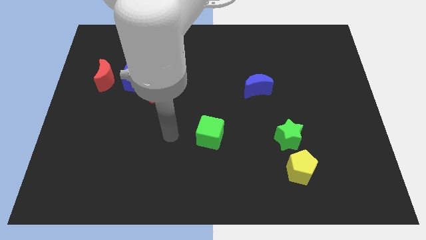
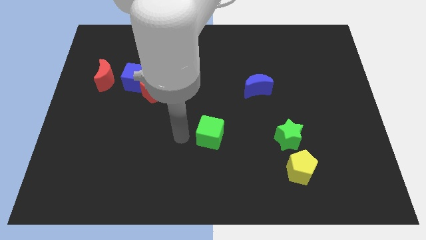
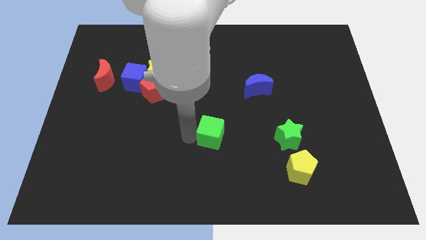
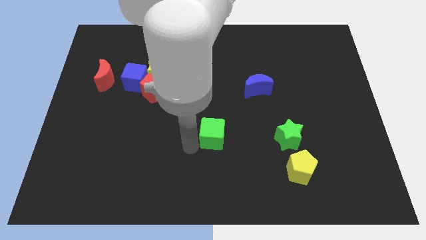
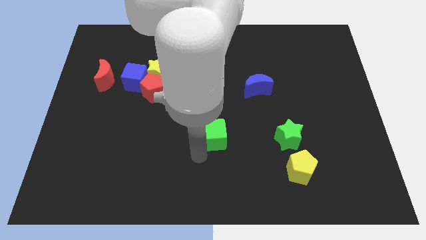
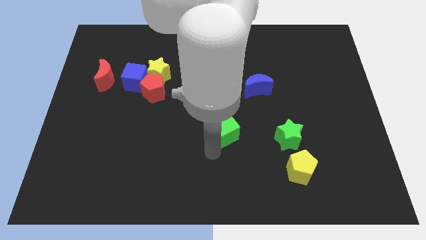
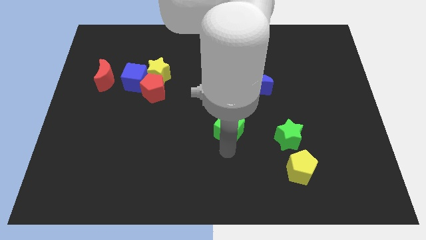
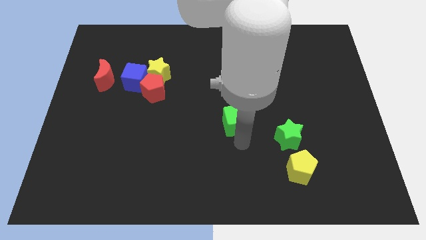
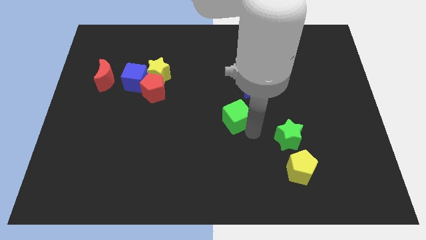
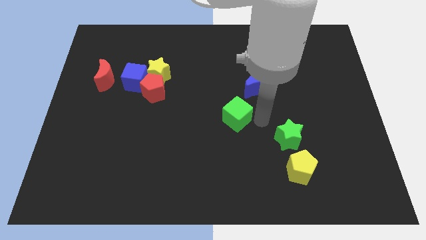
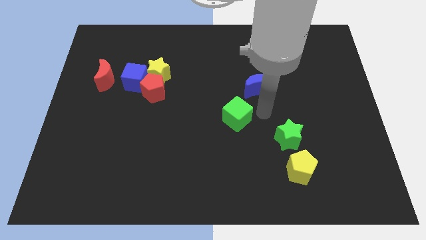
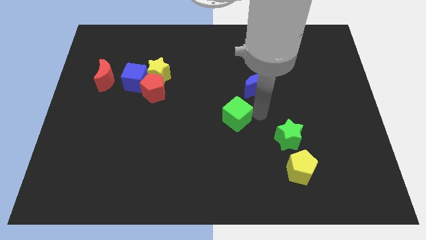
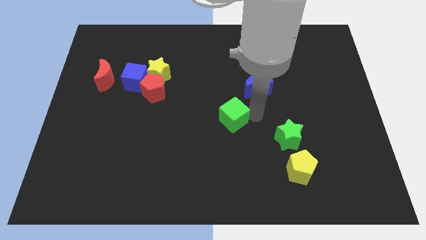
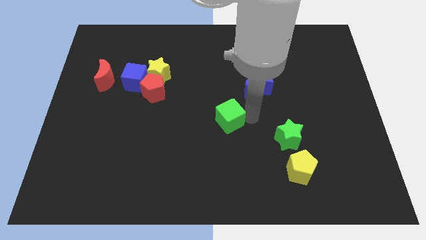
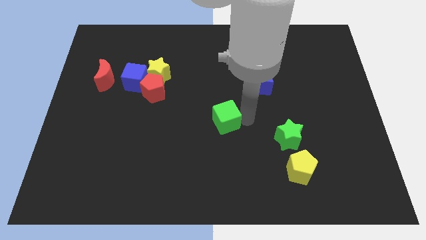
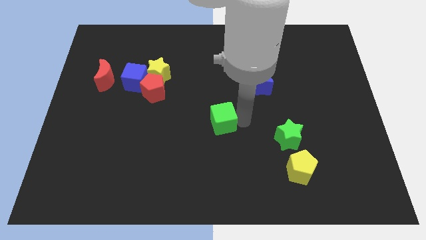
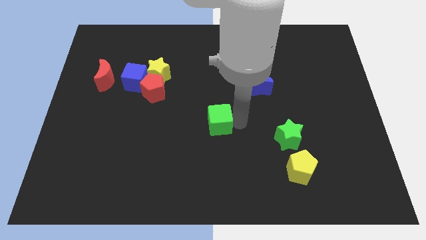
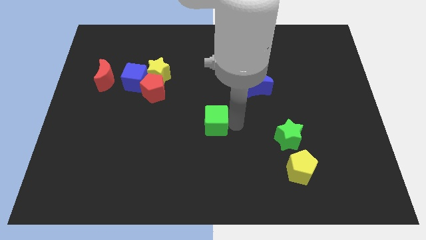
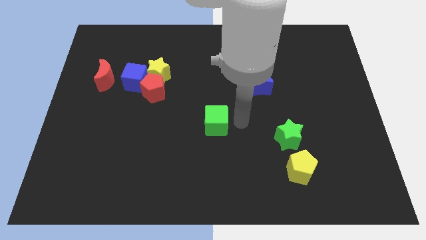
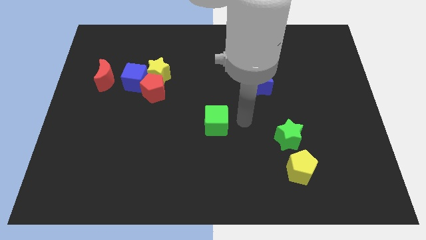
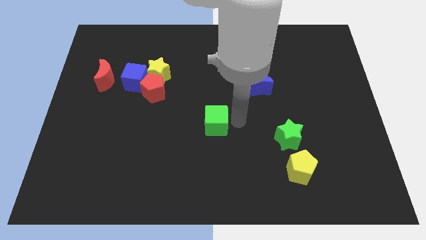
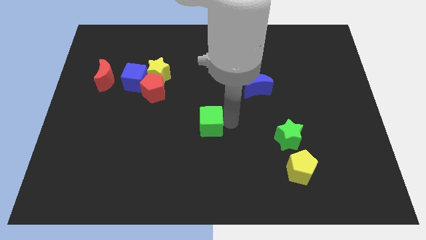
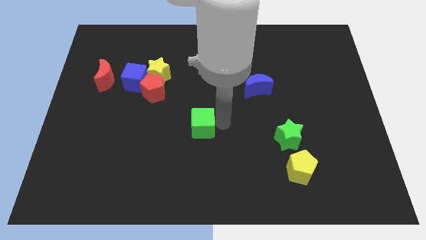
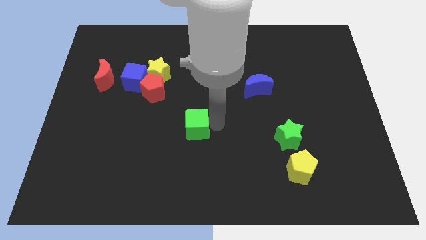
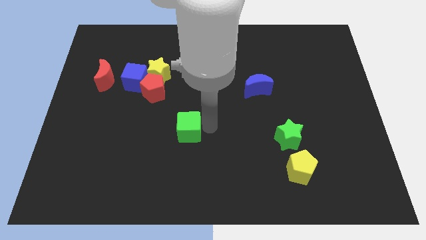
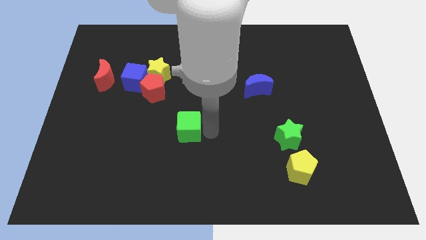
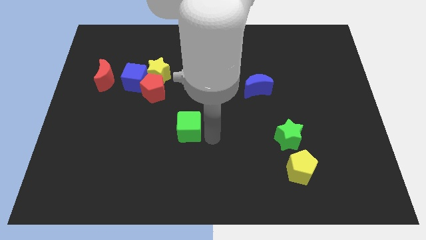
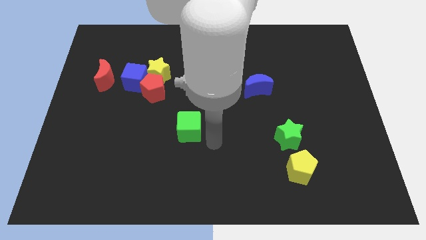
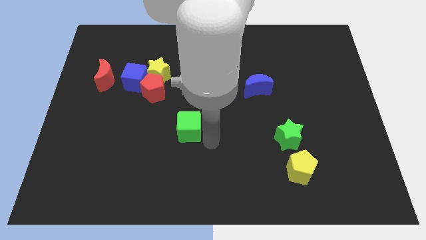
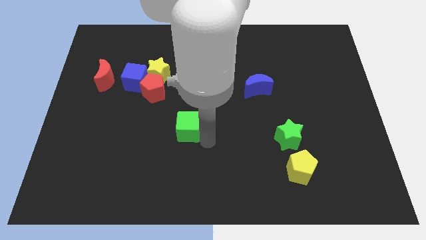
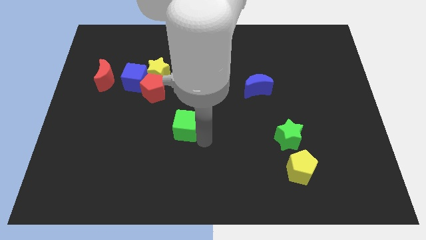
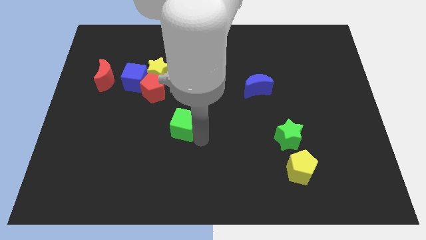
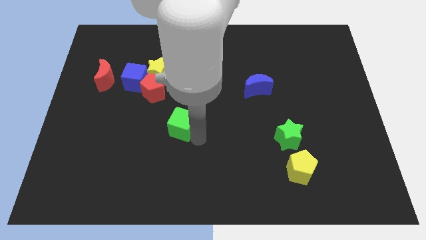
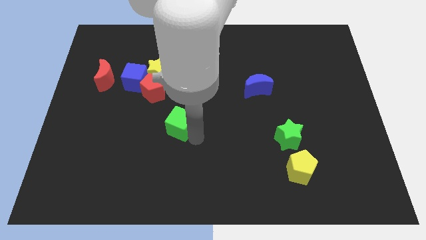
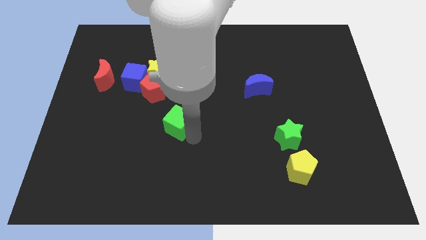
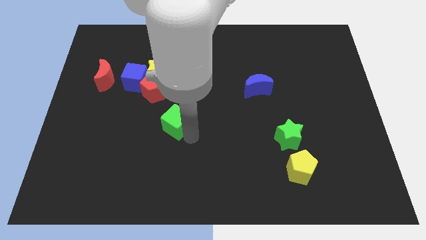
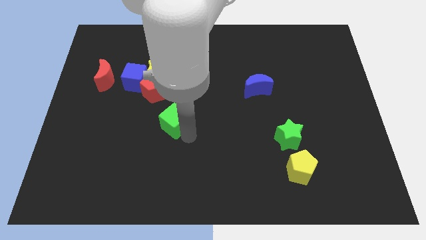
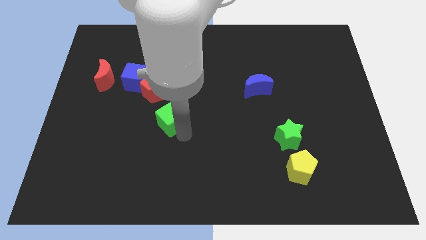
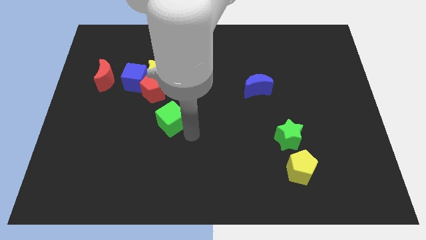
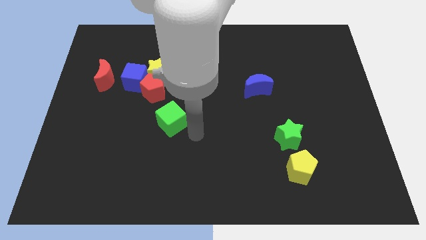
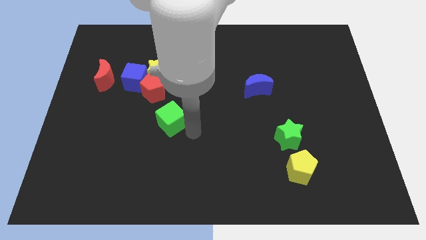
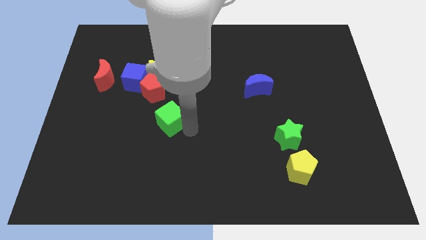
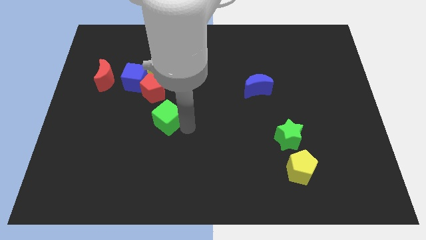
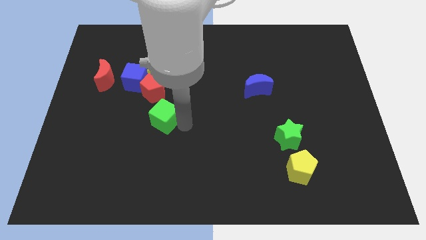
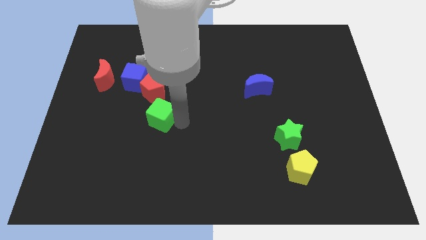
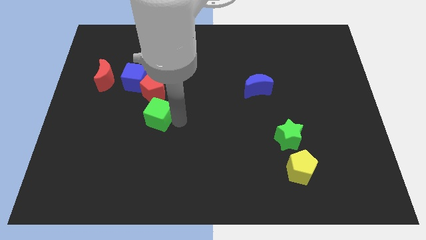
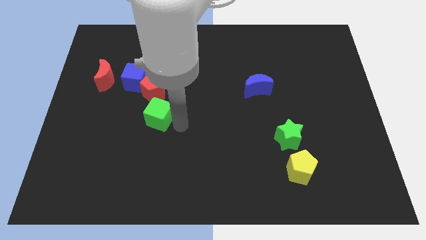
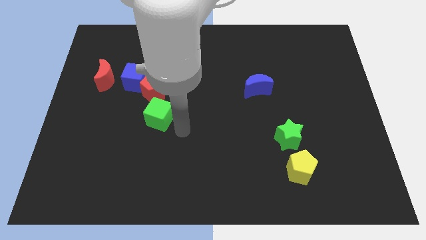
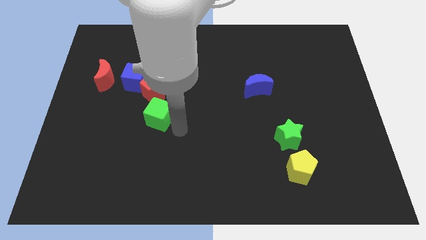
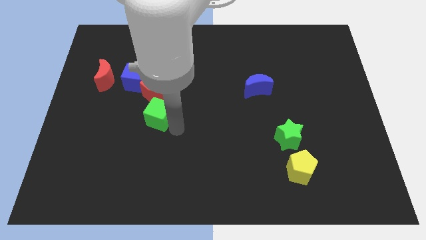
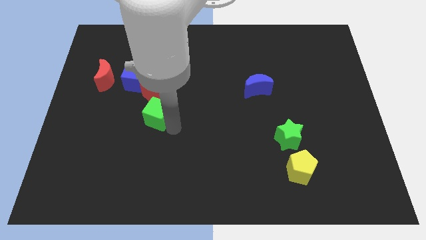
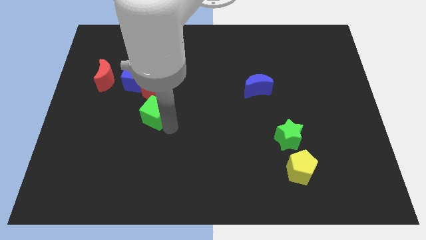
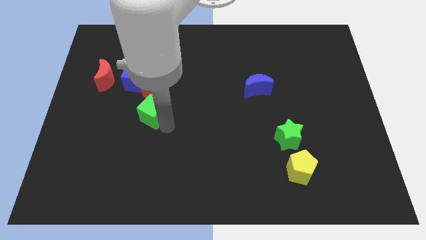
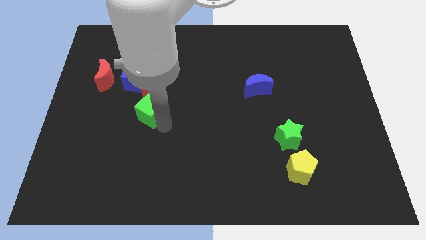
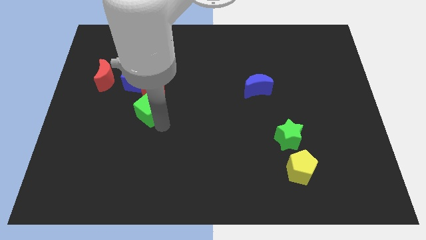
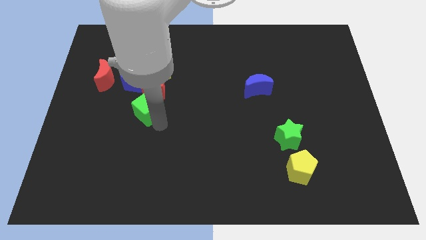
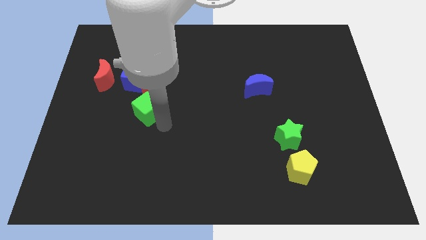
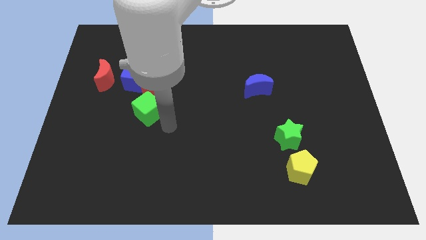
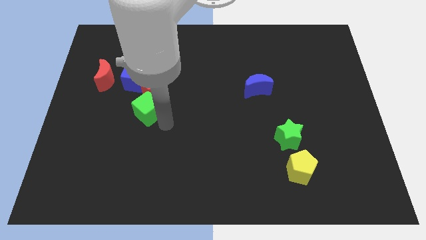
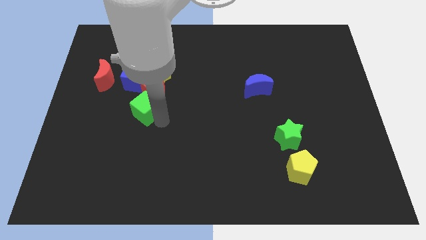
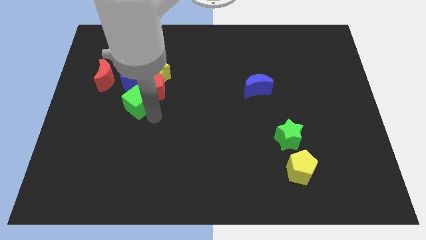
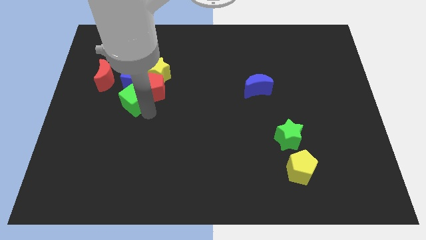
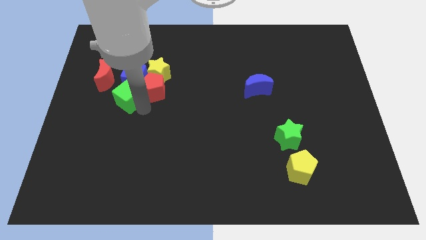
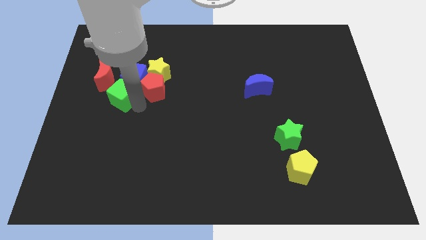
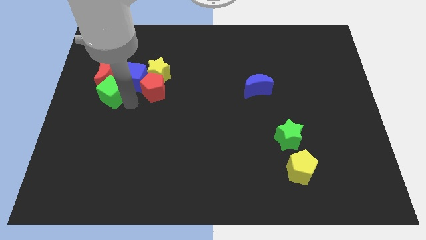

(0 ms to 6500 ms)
put the green cube next to the red moon

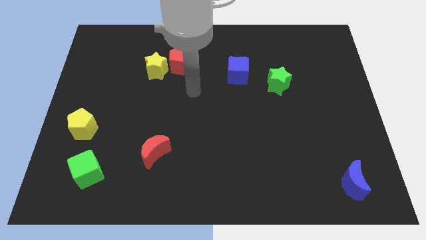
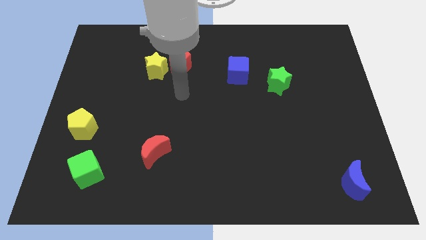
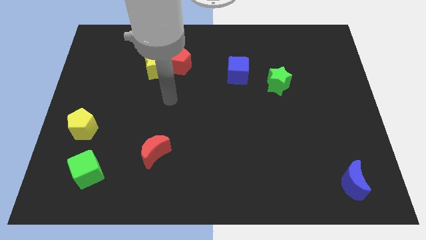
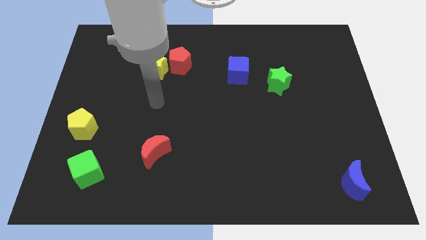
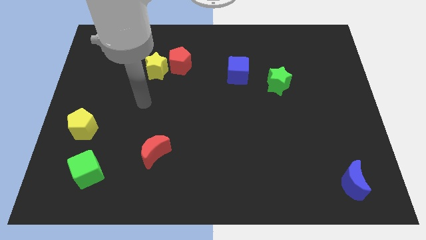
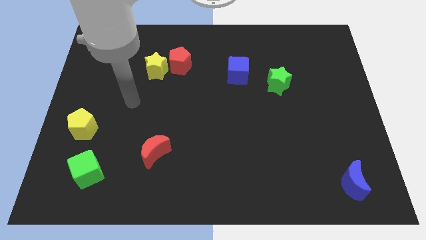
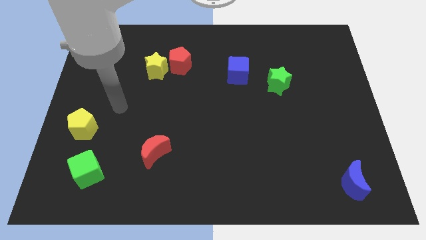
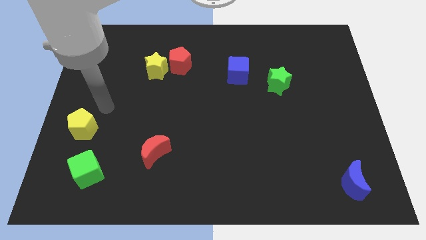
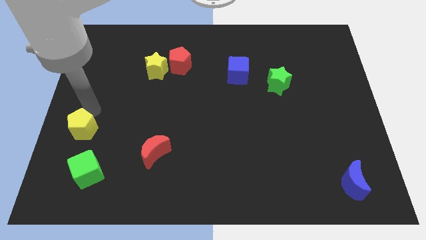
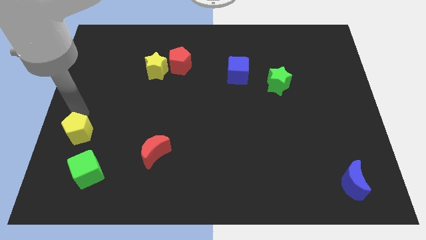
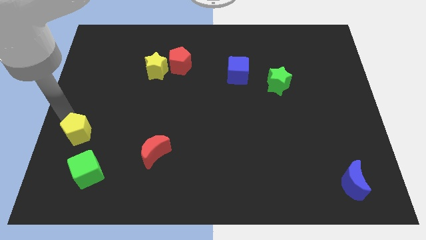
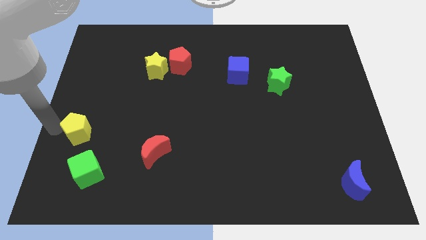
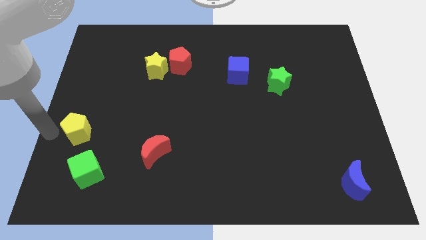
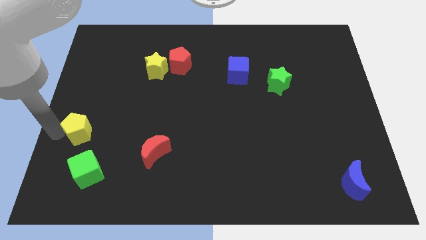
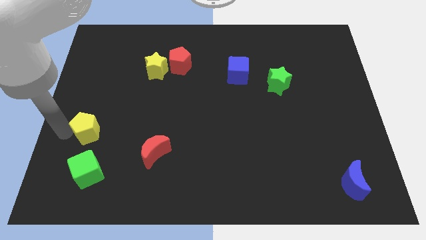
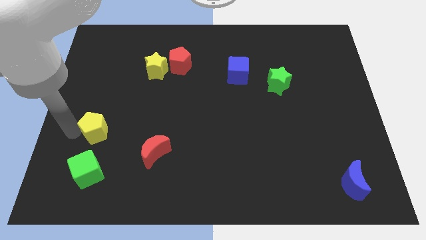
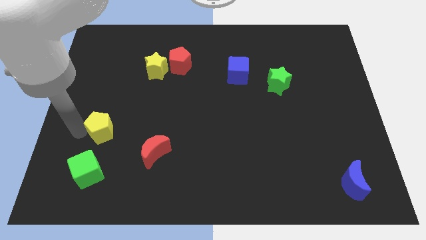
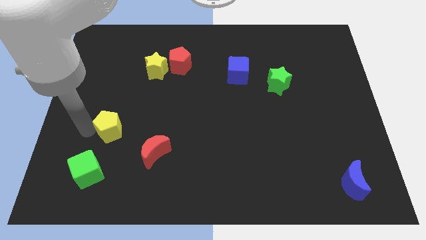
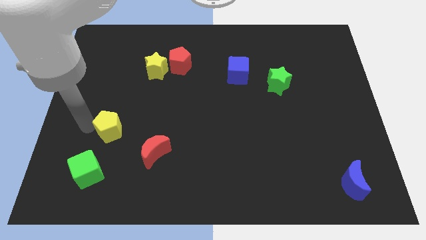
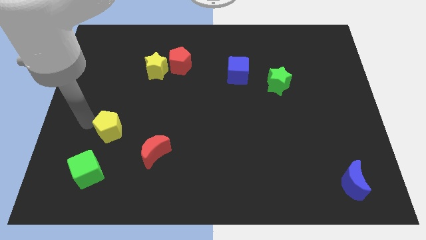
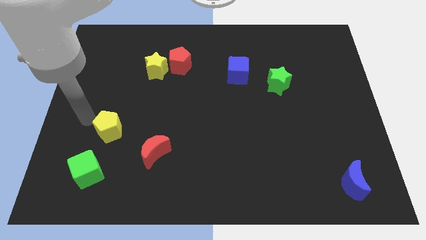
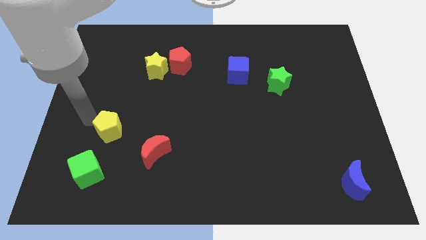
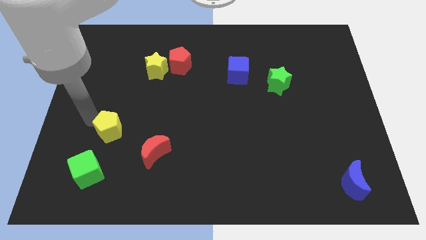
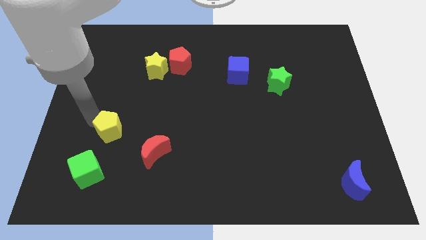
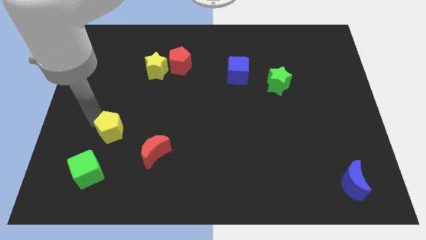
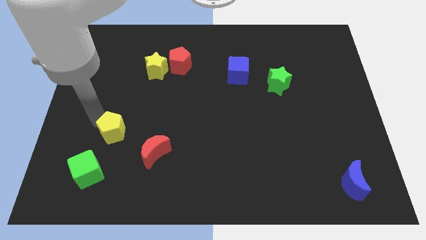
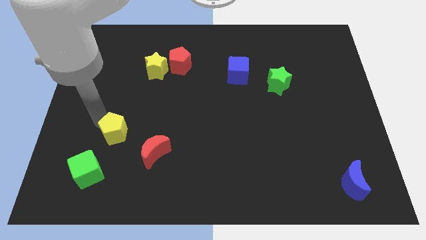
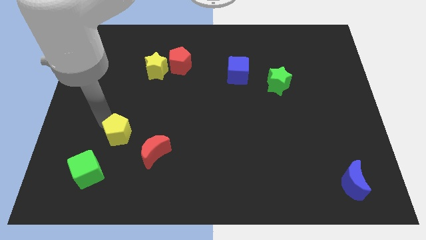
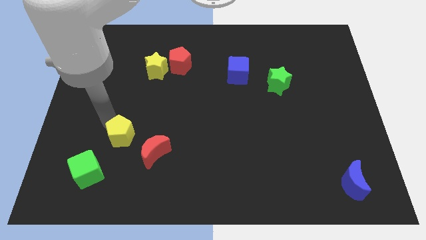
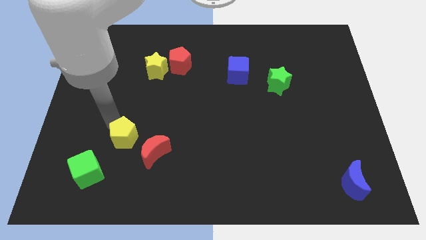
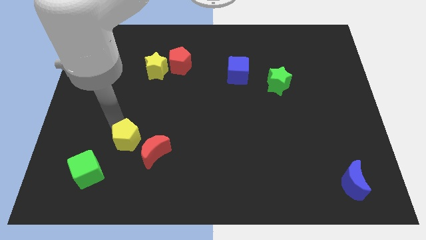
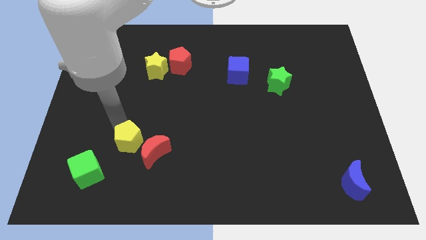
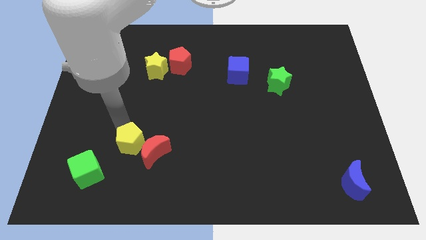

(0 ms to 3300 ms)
slide the yellow pentagon to the red moon
